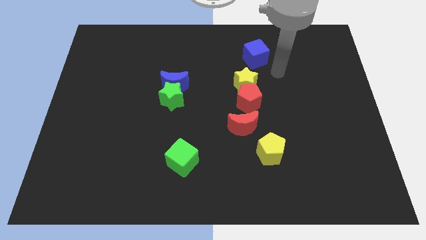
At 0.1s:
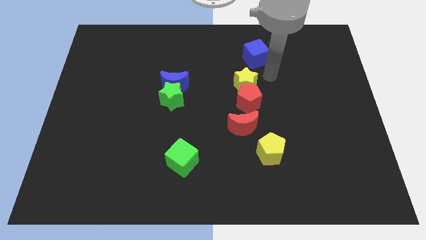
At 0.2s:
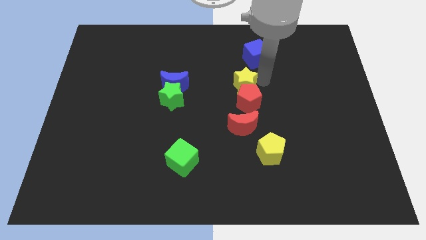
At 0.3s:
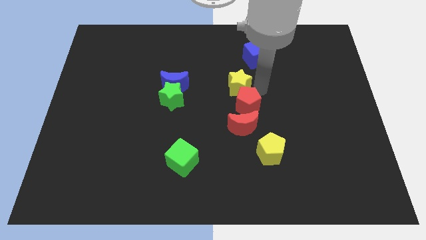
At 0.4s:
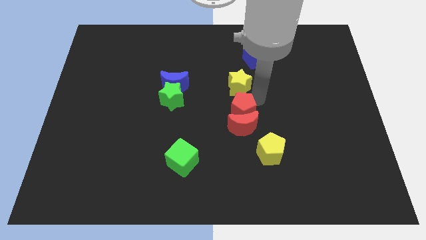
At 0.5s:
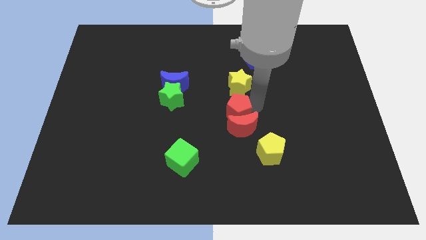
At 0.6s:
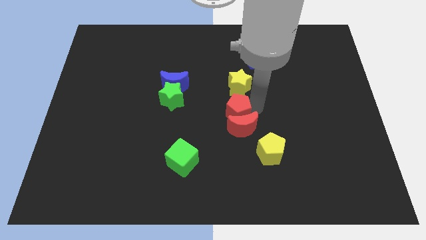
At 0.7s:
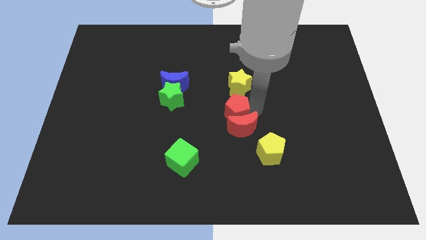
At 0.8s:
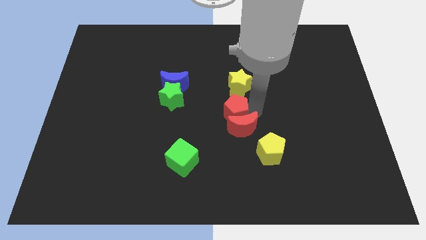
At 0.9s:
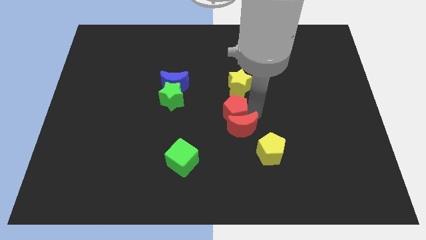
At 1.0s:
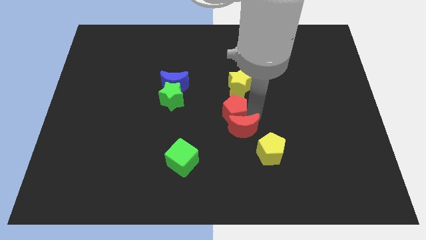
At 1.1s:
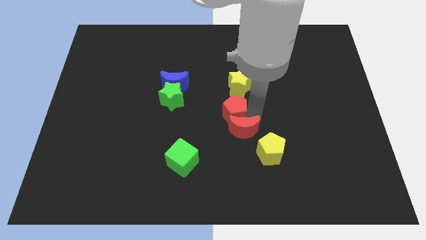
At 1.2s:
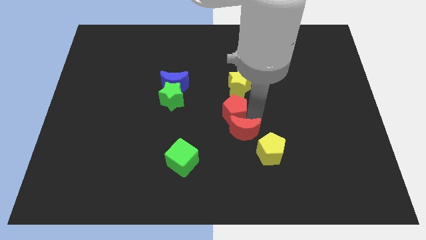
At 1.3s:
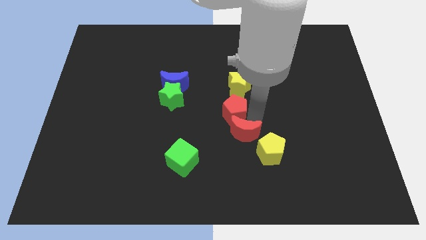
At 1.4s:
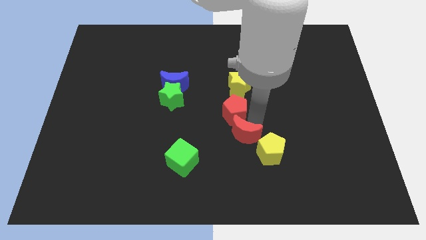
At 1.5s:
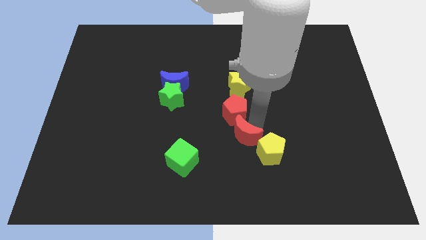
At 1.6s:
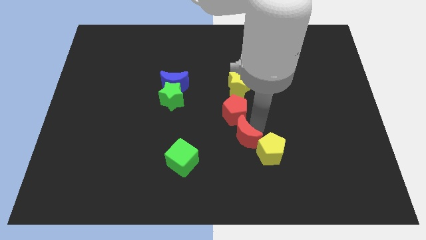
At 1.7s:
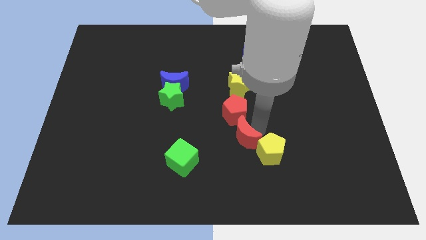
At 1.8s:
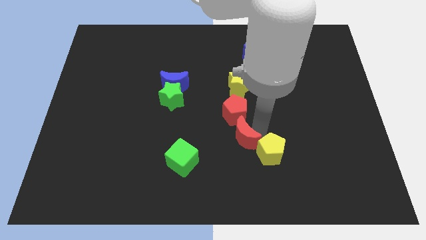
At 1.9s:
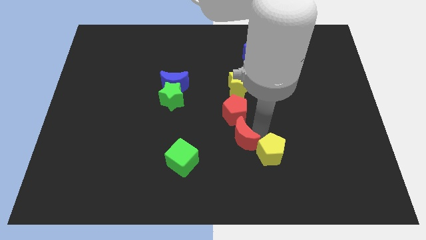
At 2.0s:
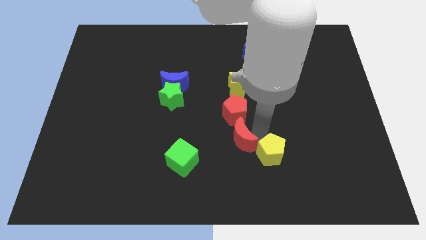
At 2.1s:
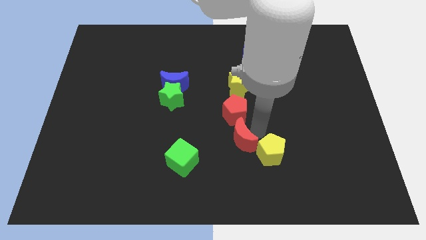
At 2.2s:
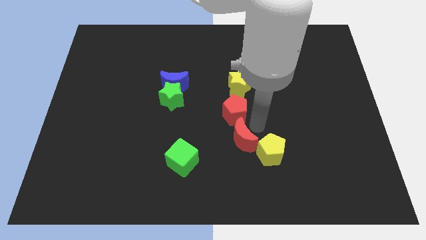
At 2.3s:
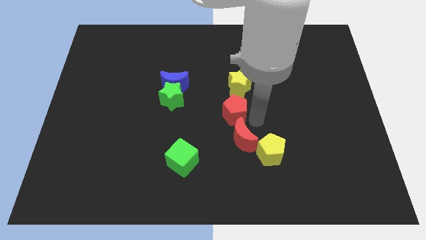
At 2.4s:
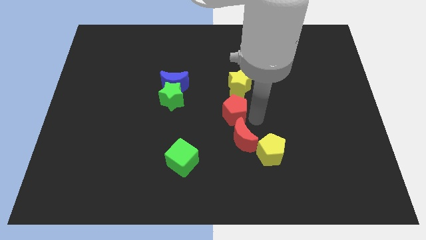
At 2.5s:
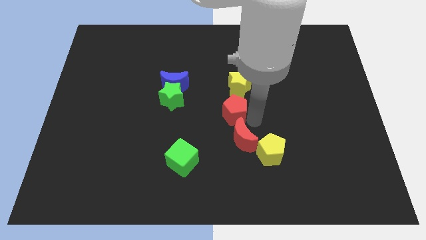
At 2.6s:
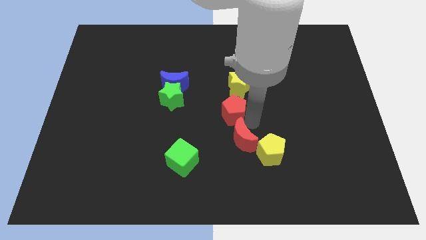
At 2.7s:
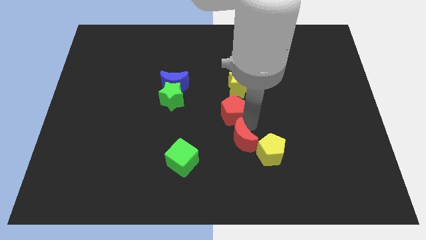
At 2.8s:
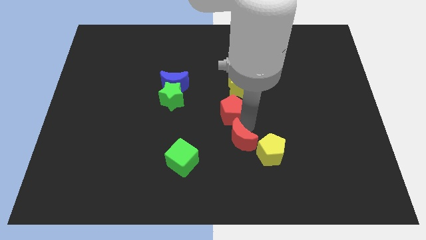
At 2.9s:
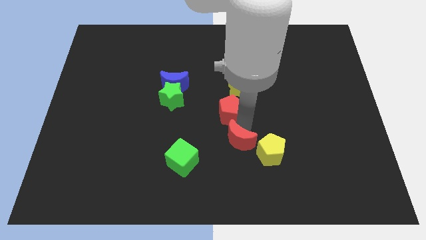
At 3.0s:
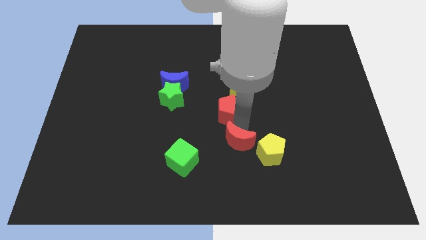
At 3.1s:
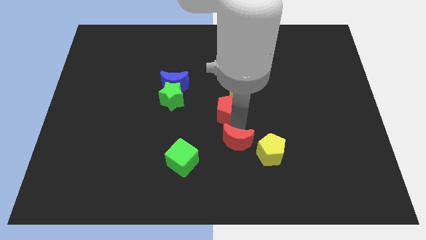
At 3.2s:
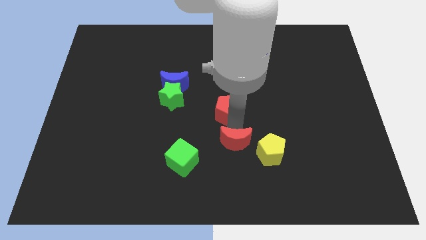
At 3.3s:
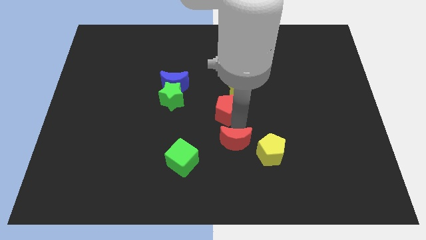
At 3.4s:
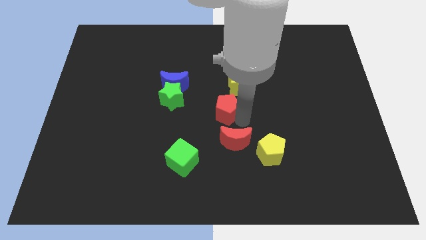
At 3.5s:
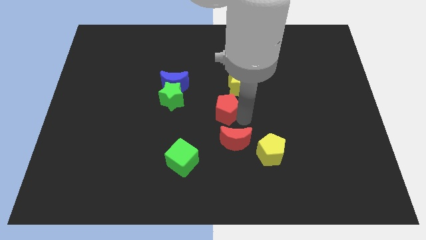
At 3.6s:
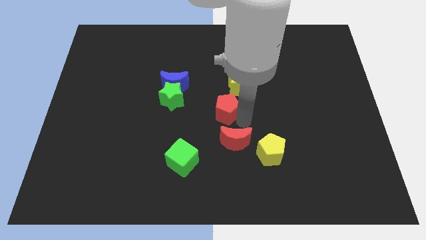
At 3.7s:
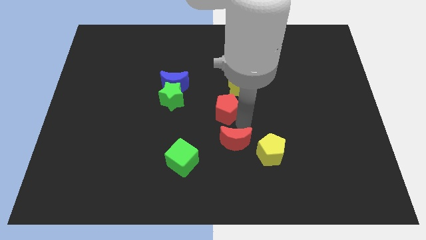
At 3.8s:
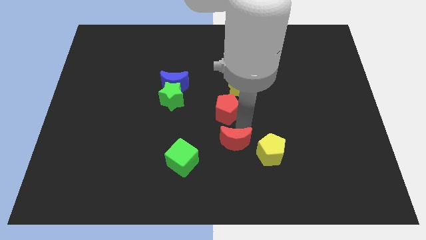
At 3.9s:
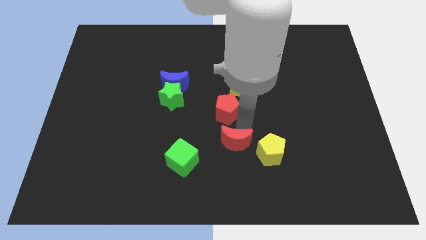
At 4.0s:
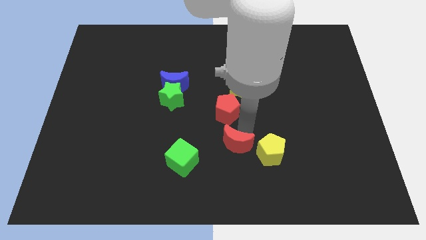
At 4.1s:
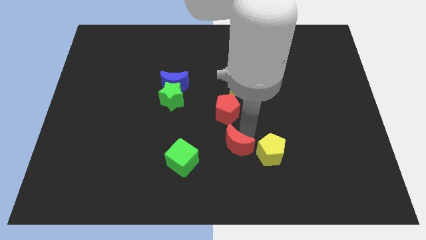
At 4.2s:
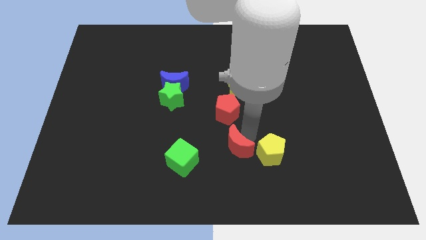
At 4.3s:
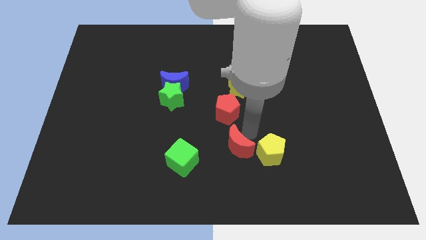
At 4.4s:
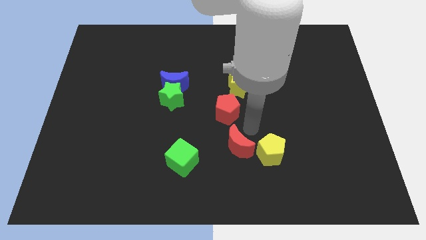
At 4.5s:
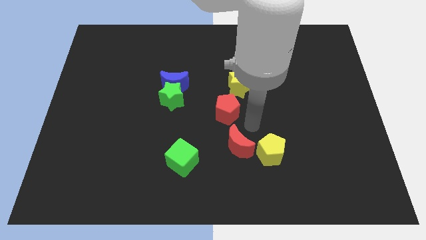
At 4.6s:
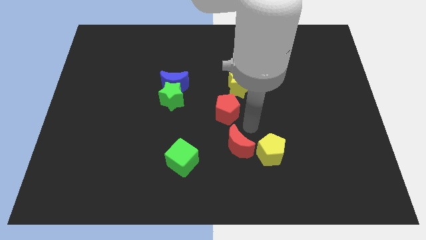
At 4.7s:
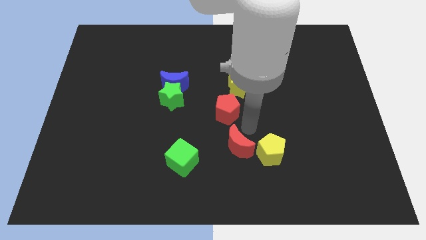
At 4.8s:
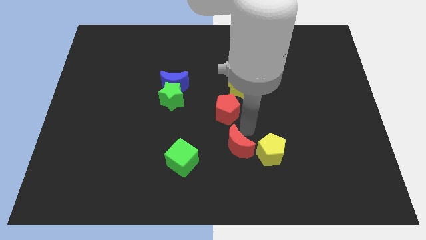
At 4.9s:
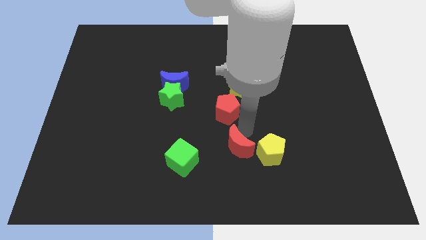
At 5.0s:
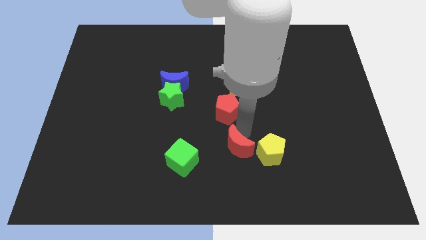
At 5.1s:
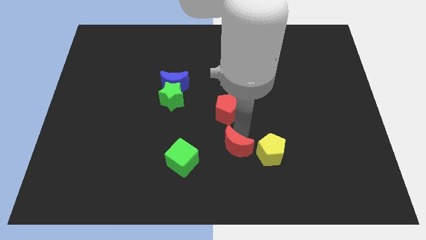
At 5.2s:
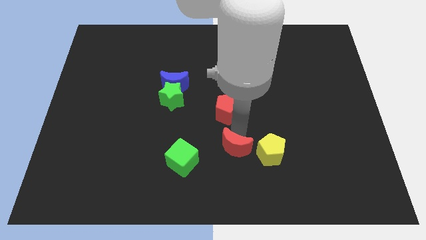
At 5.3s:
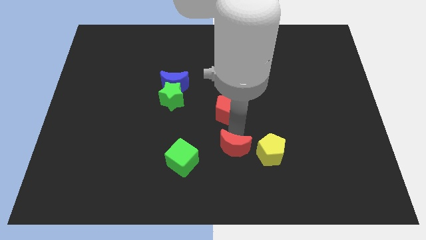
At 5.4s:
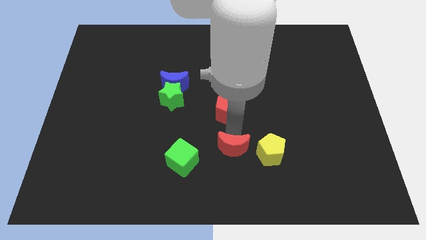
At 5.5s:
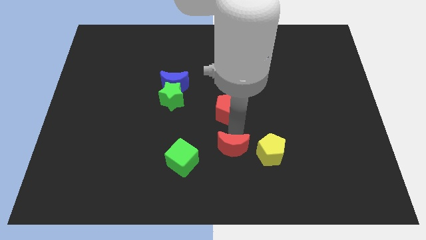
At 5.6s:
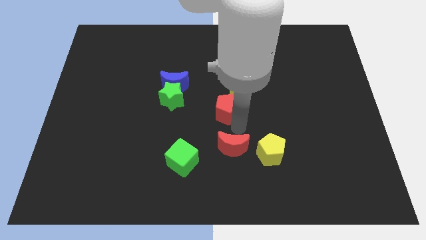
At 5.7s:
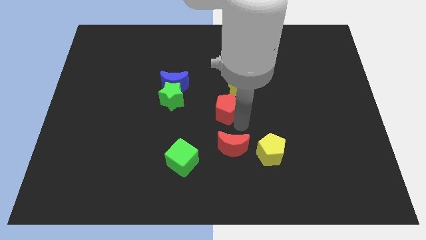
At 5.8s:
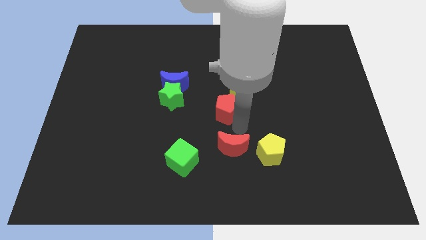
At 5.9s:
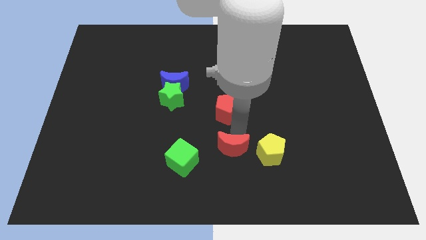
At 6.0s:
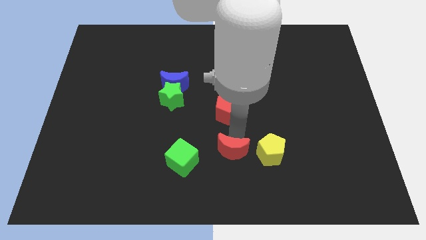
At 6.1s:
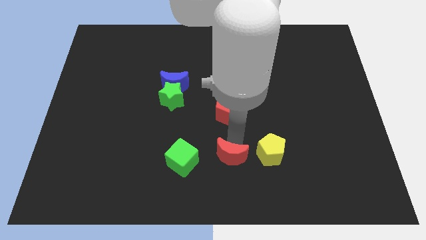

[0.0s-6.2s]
put the red moon to the bottom side
